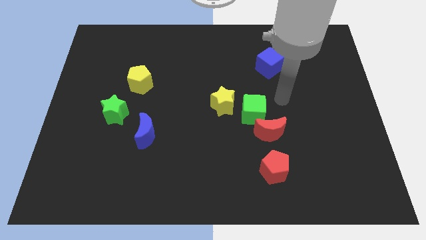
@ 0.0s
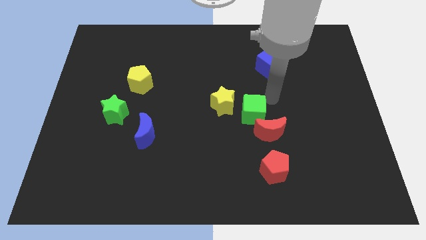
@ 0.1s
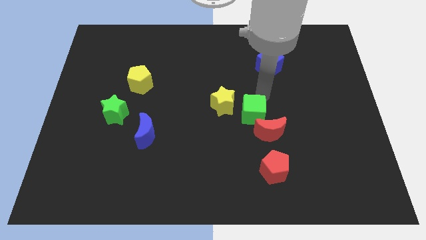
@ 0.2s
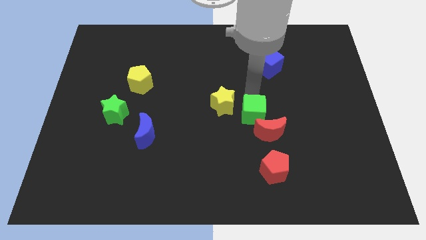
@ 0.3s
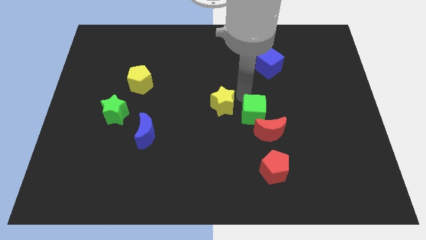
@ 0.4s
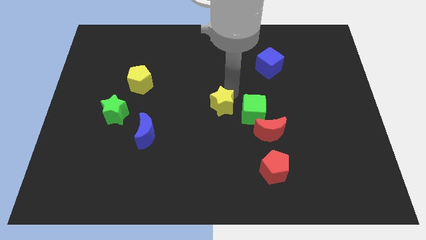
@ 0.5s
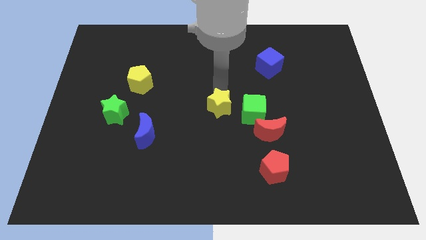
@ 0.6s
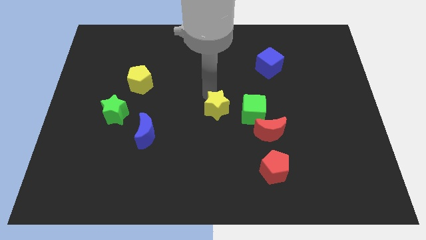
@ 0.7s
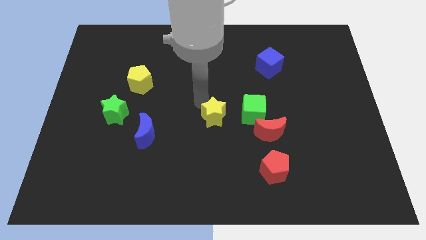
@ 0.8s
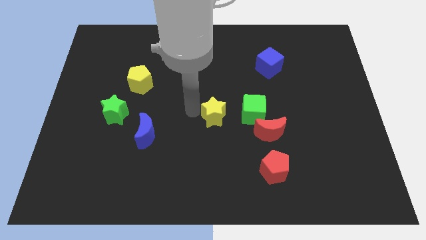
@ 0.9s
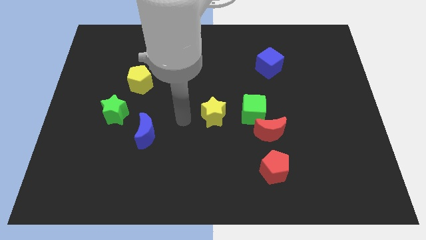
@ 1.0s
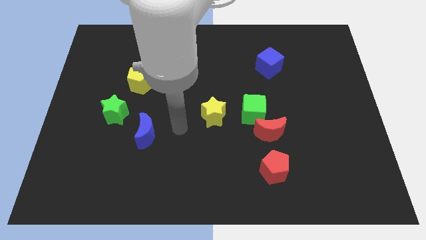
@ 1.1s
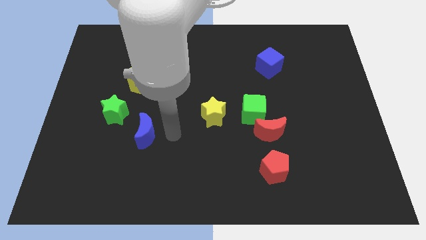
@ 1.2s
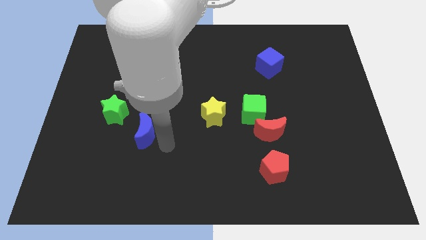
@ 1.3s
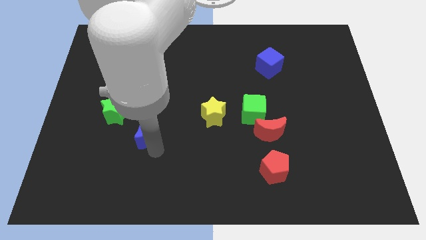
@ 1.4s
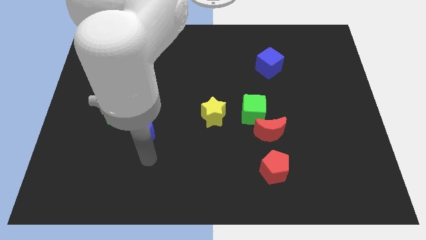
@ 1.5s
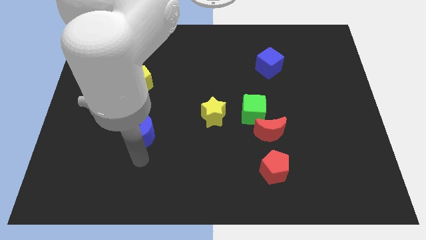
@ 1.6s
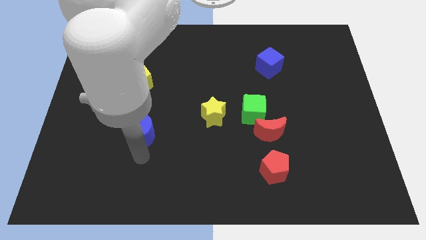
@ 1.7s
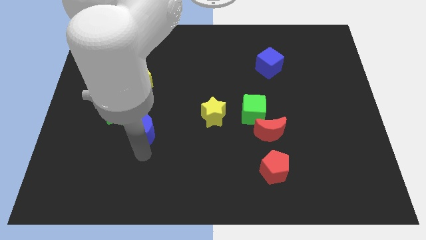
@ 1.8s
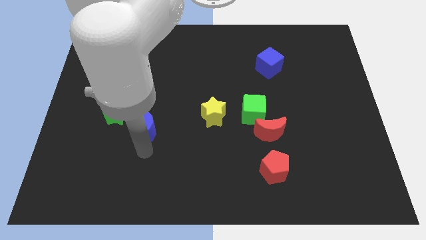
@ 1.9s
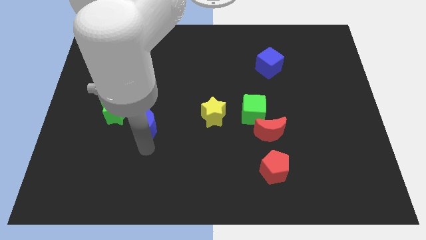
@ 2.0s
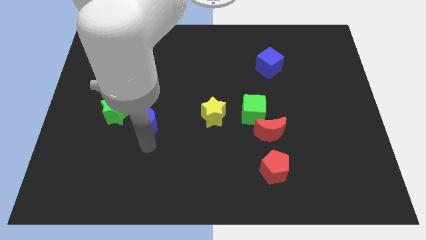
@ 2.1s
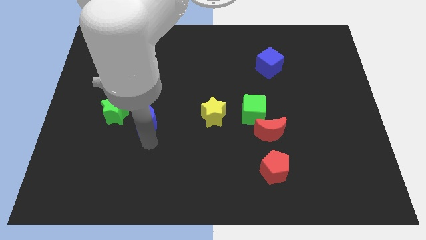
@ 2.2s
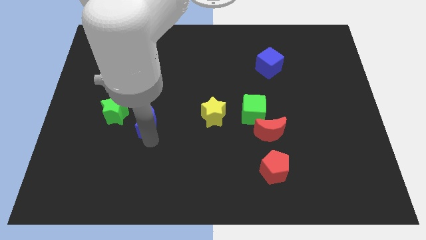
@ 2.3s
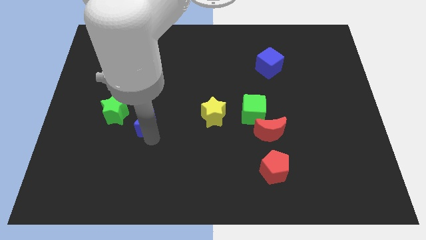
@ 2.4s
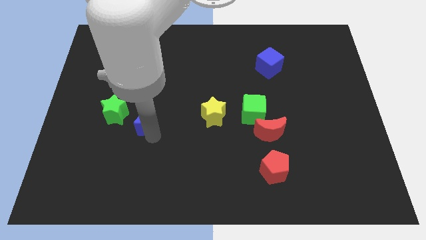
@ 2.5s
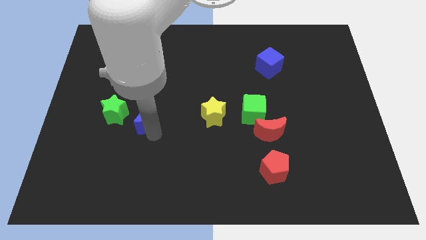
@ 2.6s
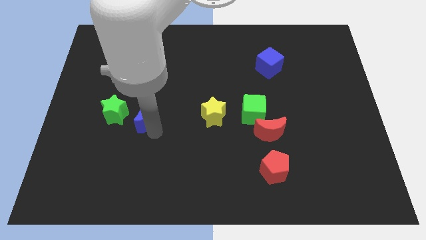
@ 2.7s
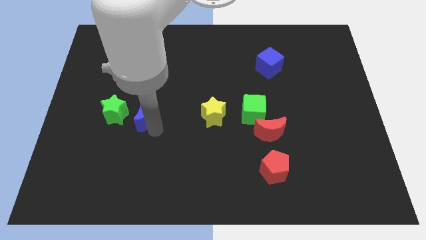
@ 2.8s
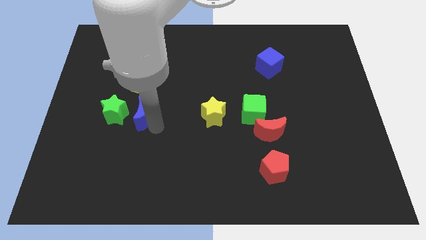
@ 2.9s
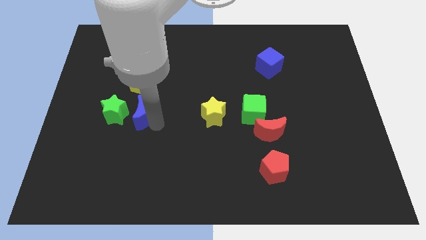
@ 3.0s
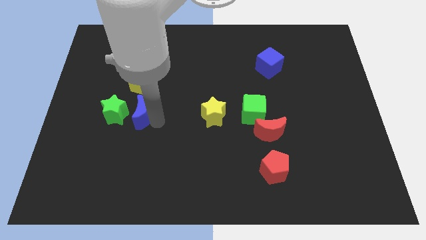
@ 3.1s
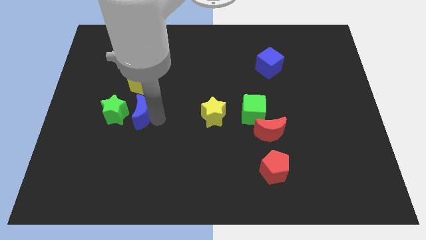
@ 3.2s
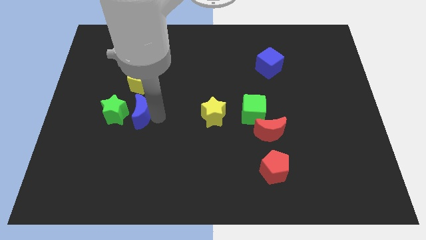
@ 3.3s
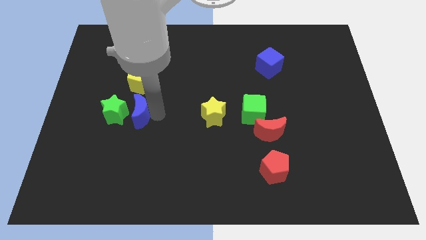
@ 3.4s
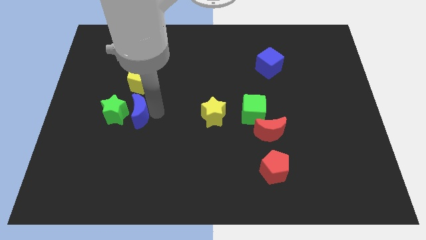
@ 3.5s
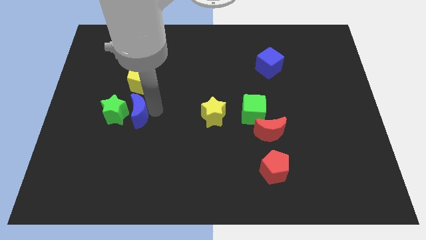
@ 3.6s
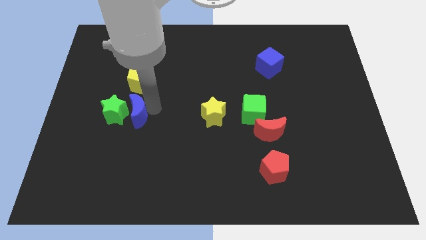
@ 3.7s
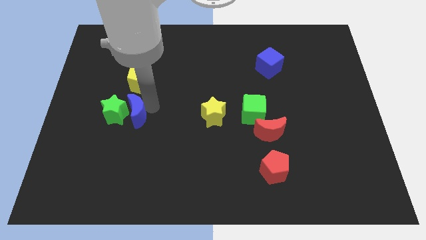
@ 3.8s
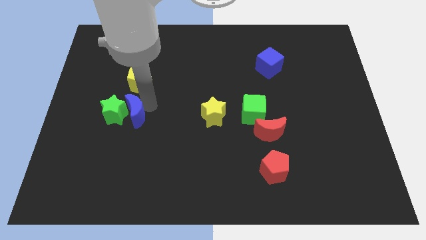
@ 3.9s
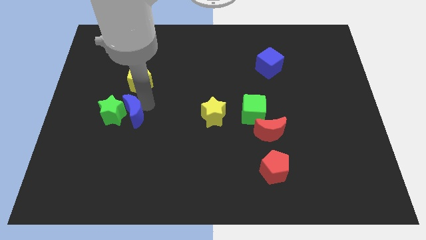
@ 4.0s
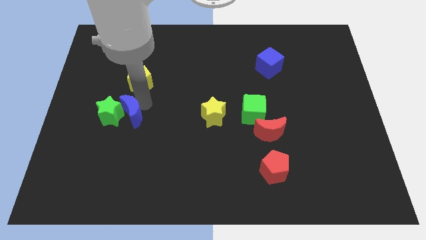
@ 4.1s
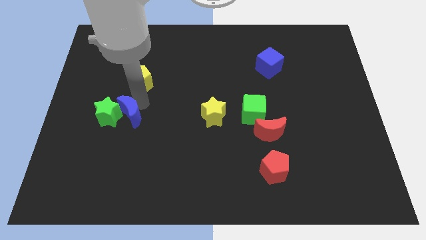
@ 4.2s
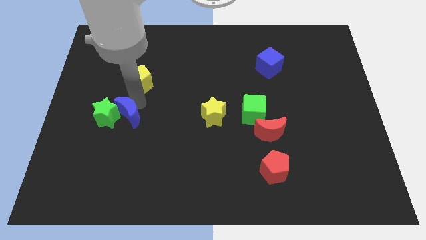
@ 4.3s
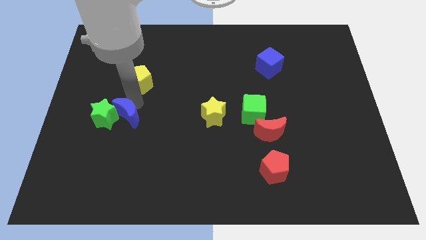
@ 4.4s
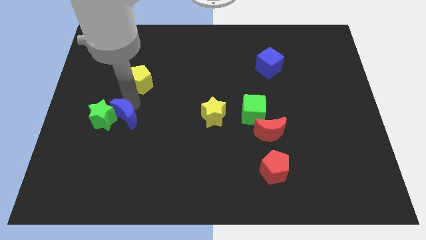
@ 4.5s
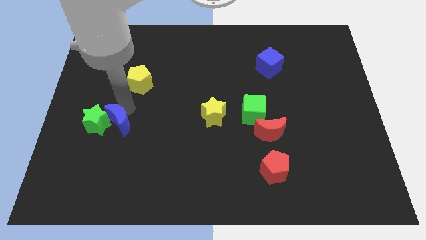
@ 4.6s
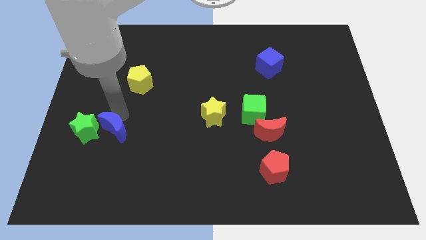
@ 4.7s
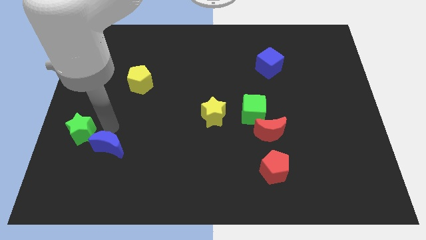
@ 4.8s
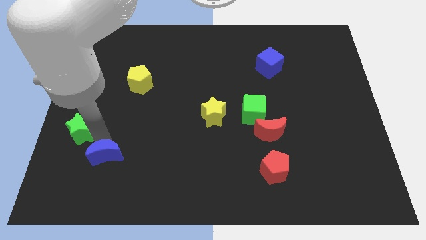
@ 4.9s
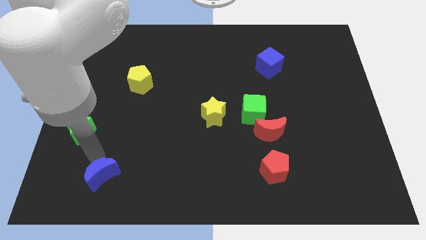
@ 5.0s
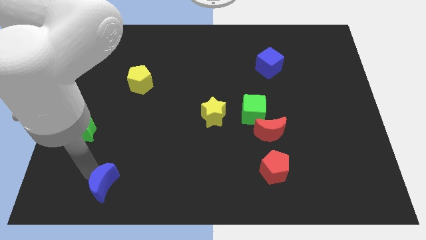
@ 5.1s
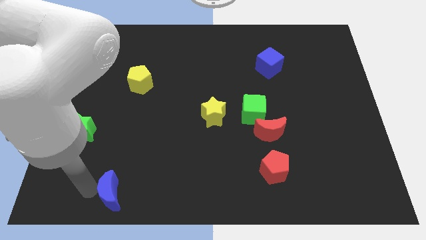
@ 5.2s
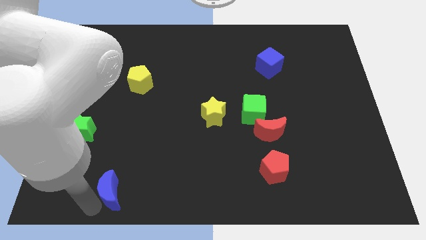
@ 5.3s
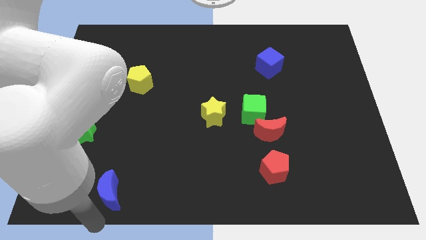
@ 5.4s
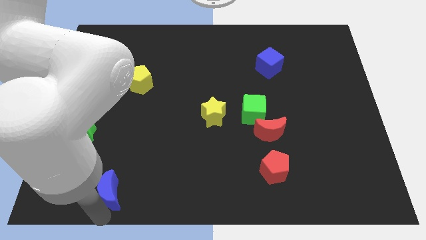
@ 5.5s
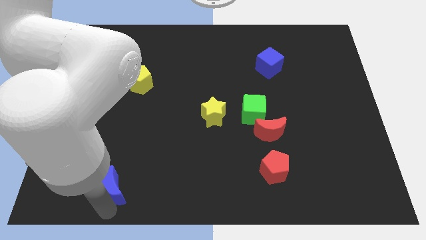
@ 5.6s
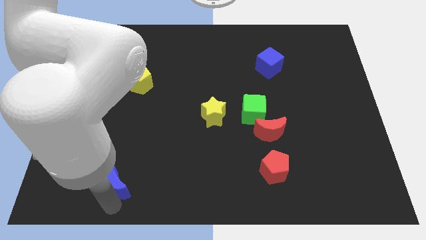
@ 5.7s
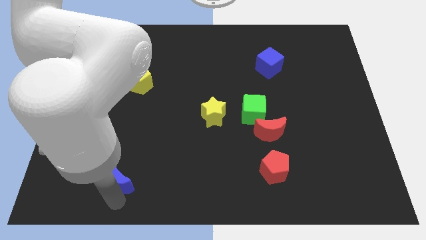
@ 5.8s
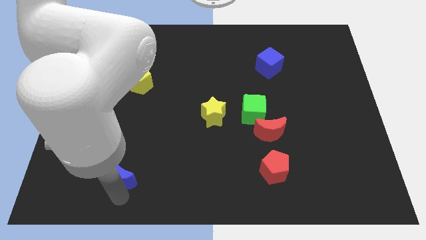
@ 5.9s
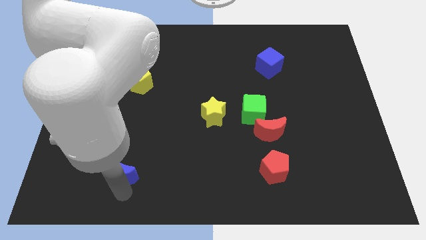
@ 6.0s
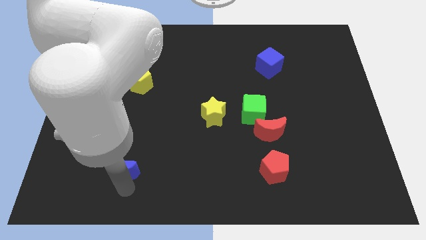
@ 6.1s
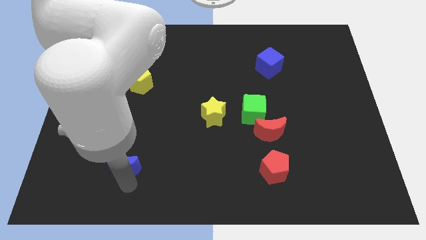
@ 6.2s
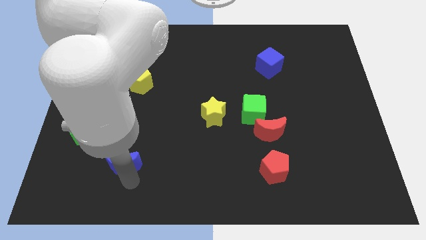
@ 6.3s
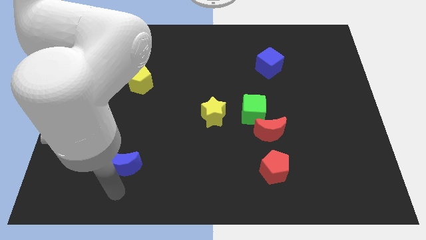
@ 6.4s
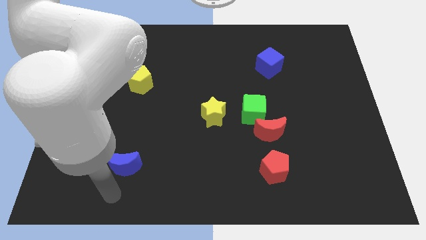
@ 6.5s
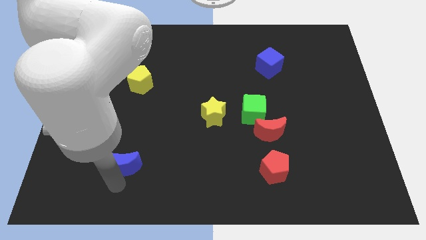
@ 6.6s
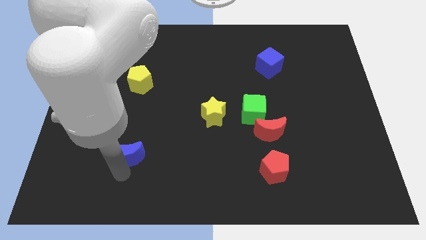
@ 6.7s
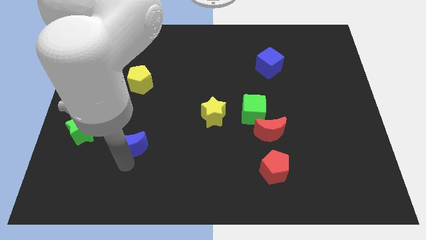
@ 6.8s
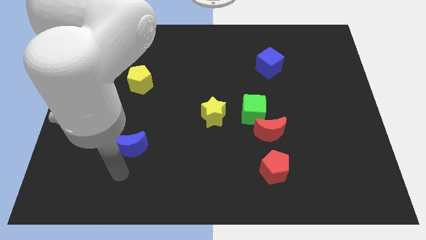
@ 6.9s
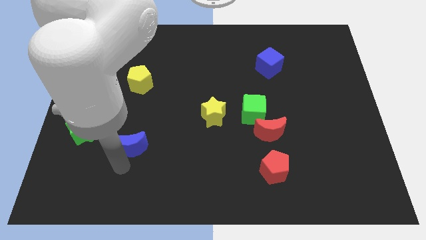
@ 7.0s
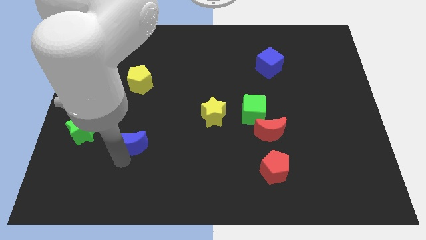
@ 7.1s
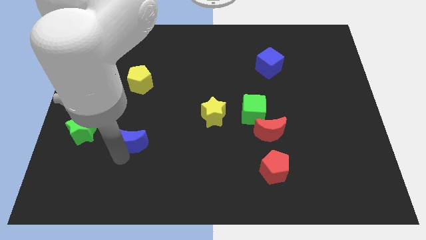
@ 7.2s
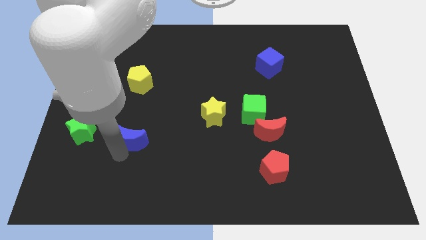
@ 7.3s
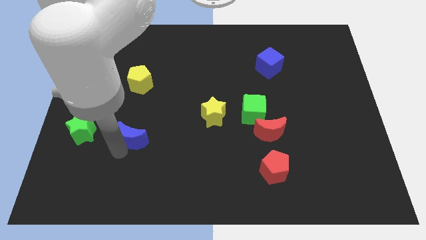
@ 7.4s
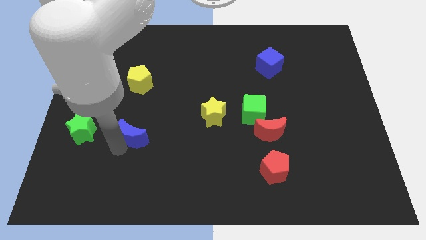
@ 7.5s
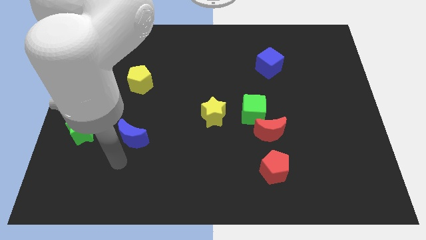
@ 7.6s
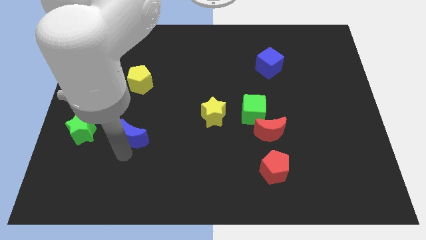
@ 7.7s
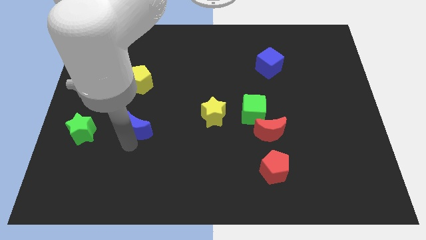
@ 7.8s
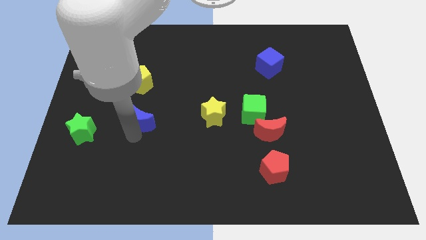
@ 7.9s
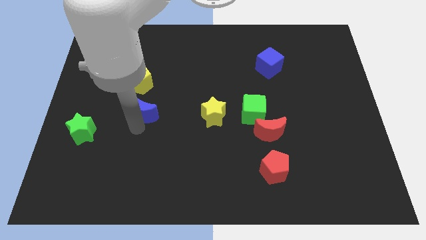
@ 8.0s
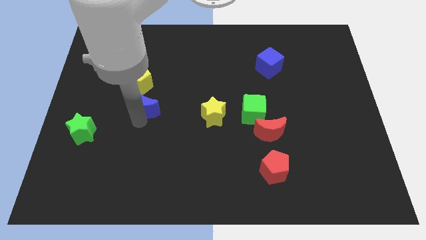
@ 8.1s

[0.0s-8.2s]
slightly move the blue moon up

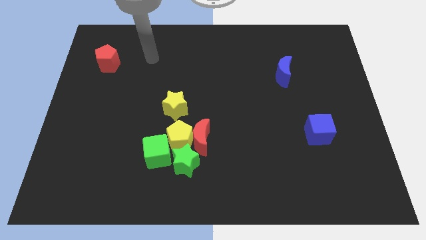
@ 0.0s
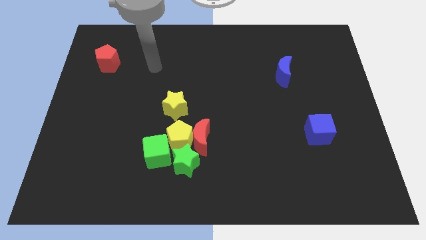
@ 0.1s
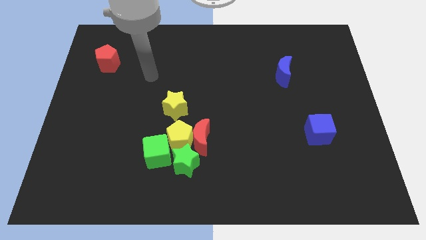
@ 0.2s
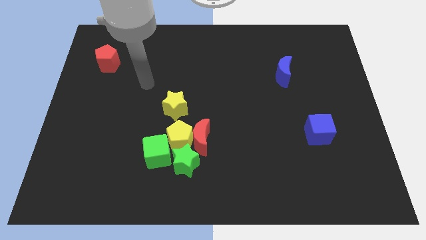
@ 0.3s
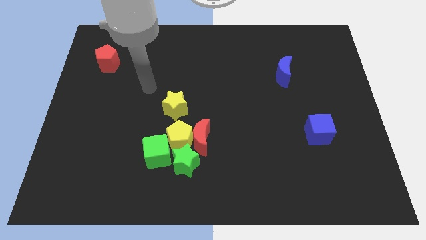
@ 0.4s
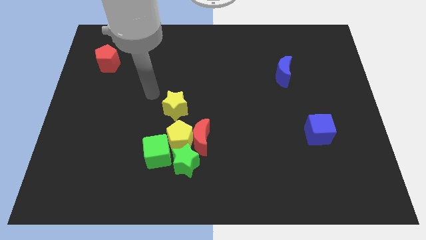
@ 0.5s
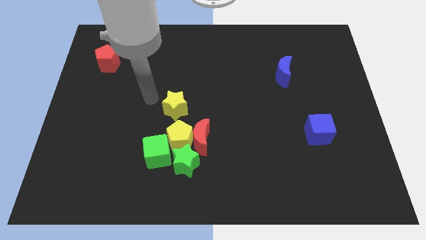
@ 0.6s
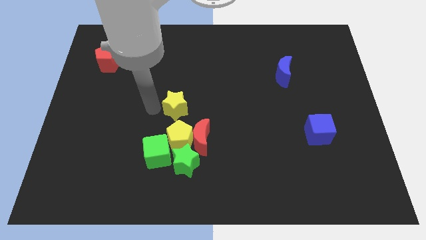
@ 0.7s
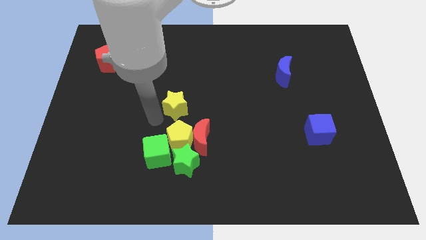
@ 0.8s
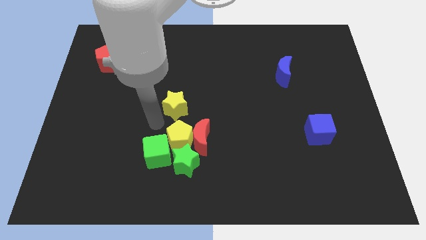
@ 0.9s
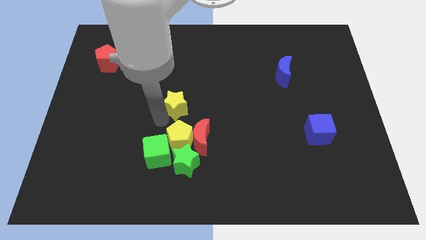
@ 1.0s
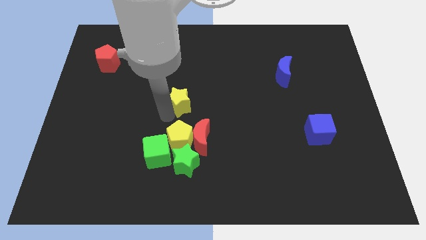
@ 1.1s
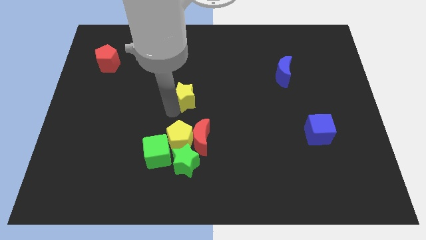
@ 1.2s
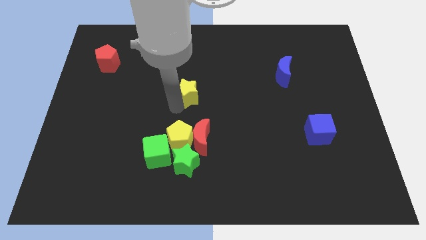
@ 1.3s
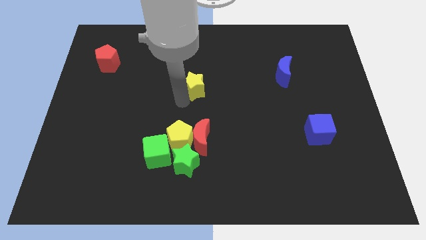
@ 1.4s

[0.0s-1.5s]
slightly slide the yellow star upwards and to the right
